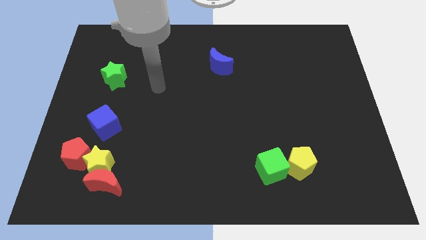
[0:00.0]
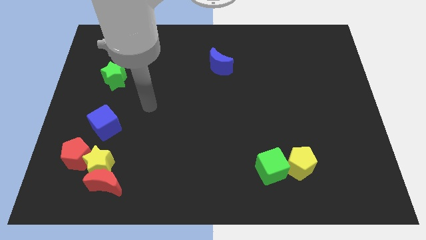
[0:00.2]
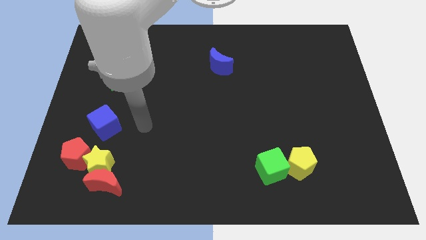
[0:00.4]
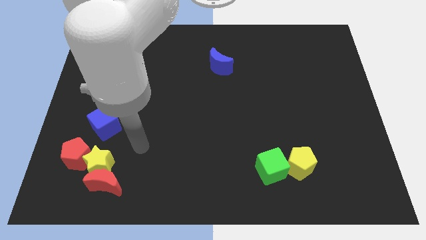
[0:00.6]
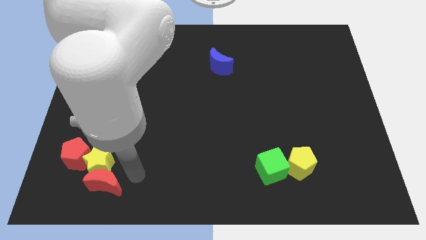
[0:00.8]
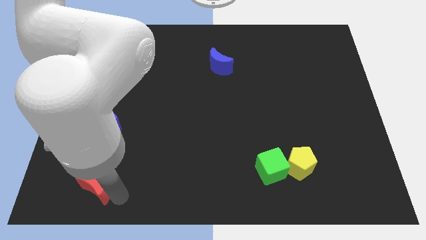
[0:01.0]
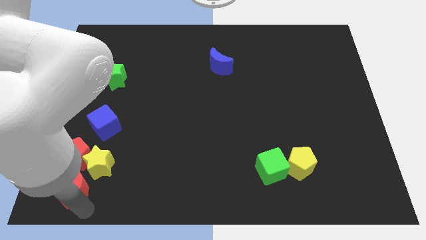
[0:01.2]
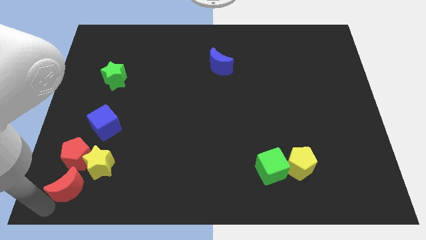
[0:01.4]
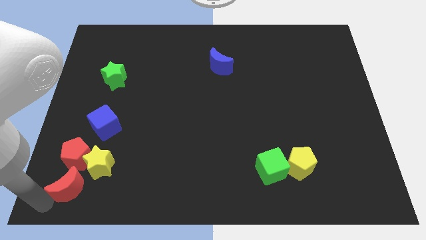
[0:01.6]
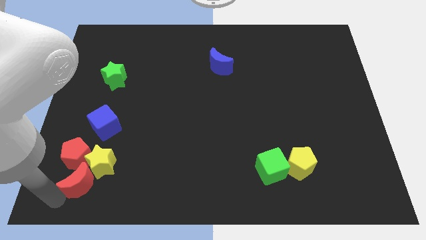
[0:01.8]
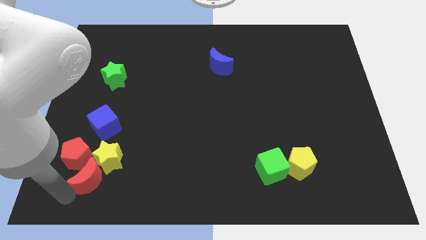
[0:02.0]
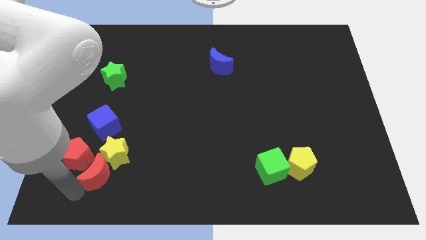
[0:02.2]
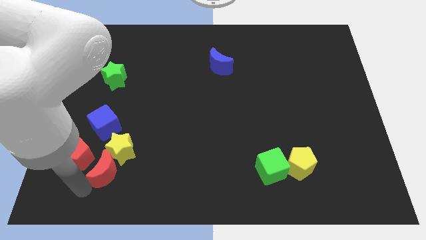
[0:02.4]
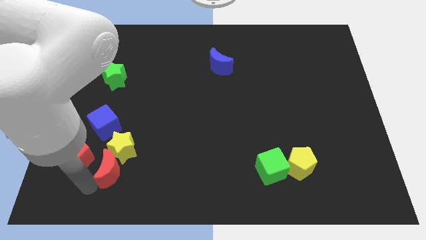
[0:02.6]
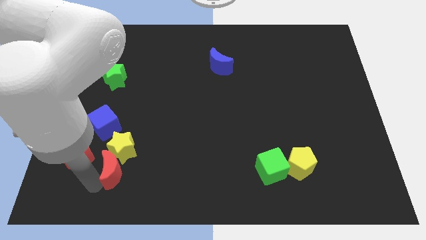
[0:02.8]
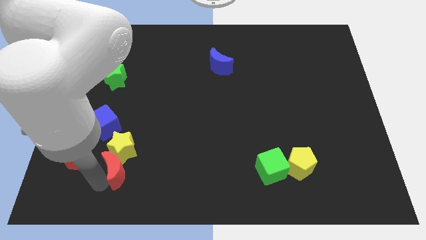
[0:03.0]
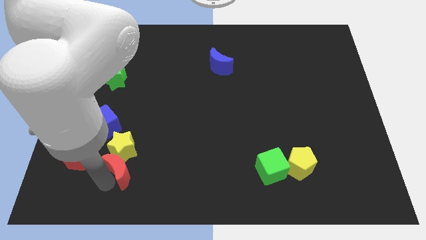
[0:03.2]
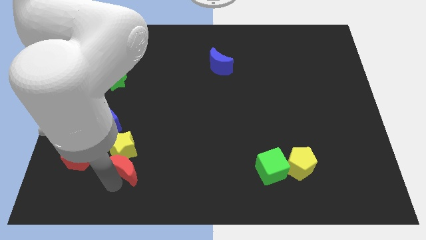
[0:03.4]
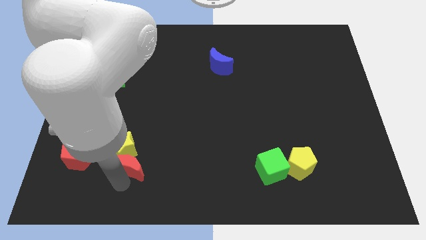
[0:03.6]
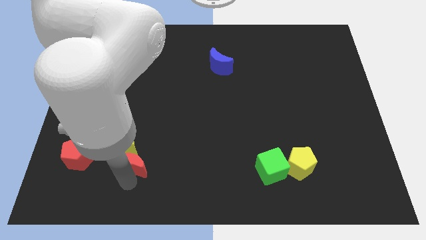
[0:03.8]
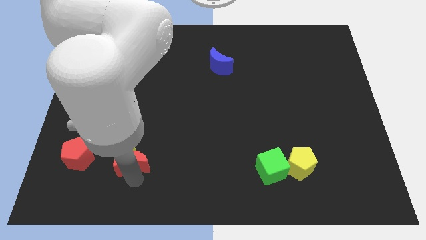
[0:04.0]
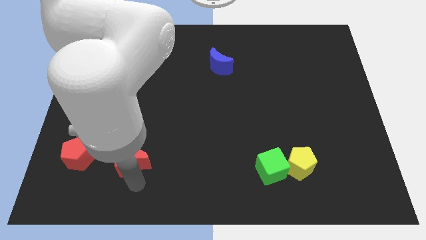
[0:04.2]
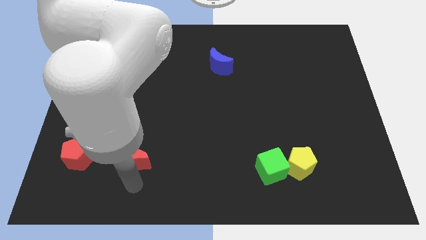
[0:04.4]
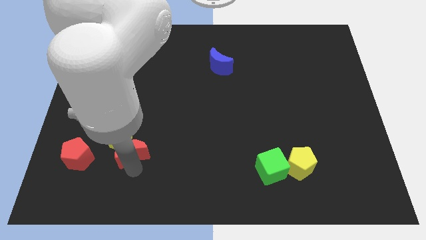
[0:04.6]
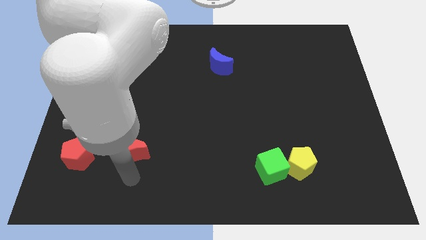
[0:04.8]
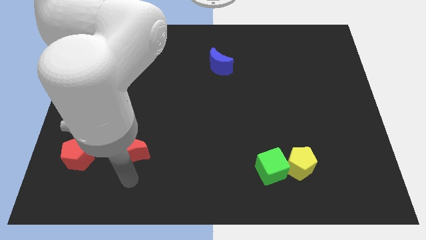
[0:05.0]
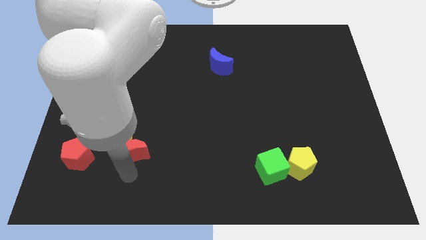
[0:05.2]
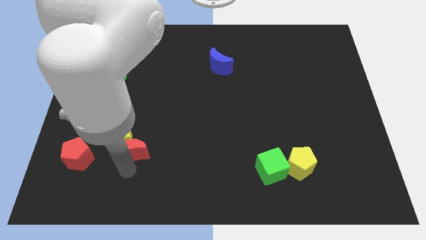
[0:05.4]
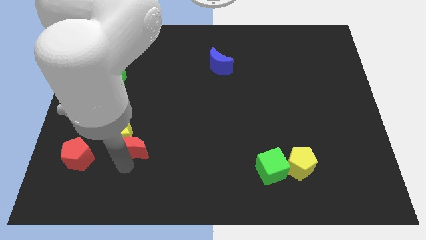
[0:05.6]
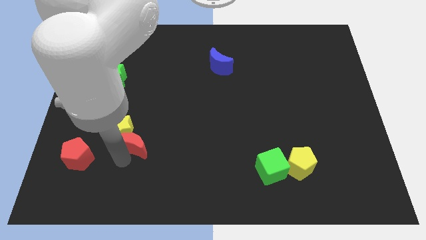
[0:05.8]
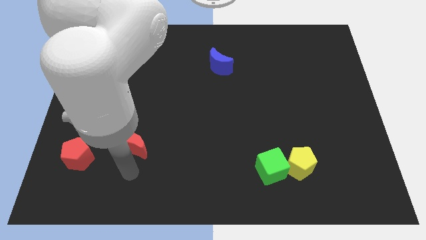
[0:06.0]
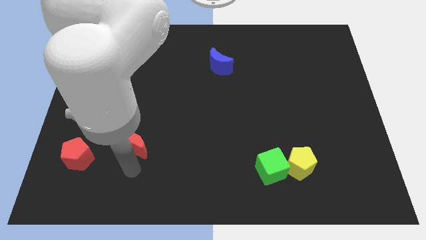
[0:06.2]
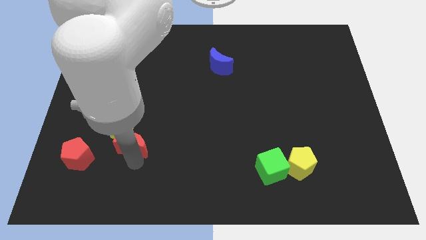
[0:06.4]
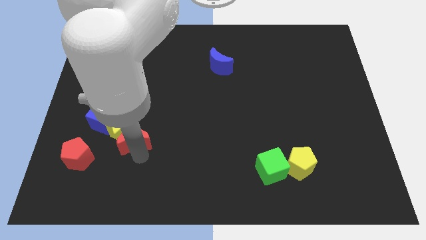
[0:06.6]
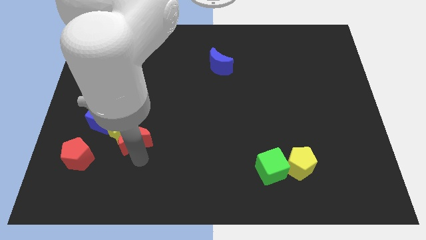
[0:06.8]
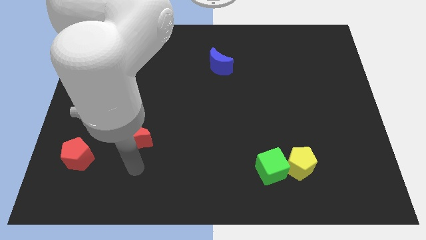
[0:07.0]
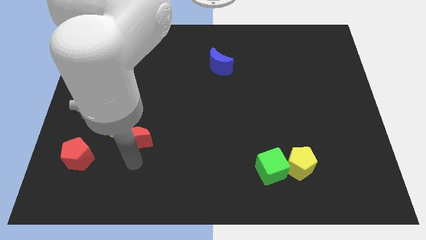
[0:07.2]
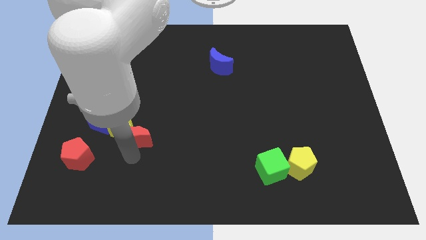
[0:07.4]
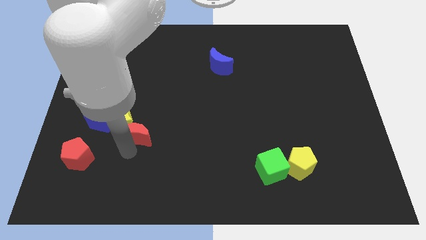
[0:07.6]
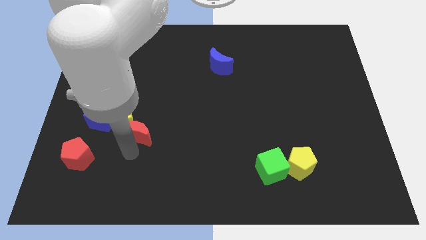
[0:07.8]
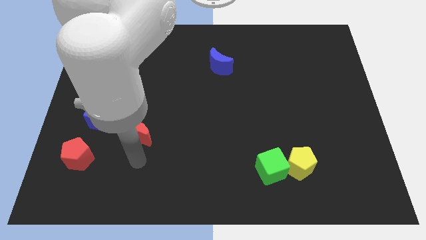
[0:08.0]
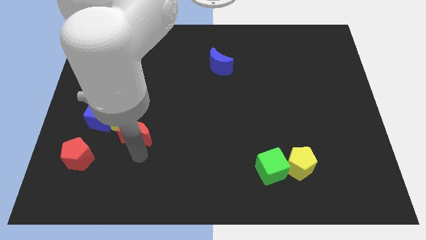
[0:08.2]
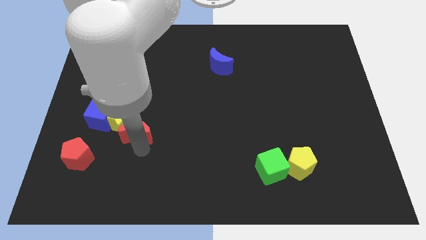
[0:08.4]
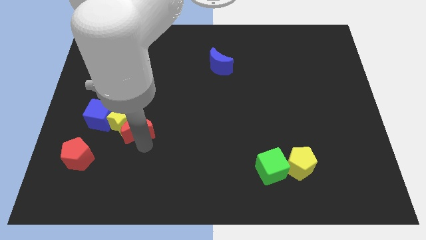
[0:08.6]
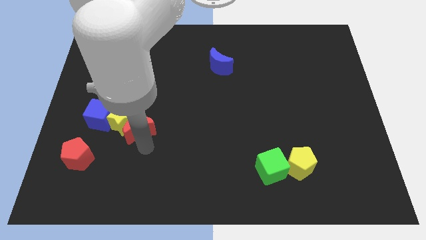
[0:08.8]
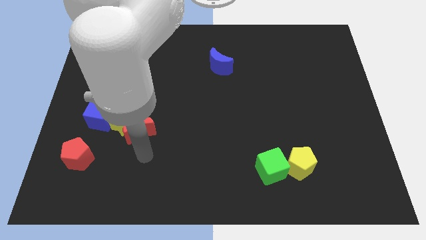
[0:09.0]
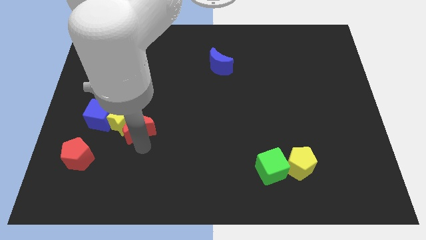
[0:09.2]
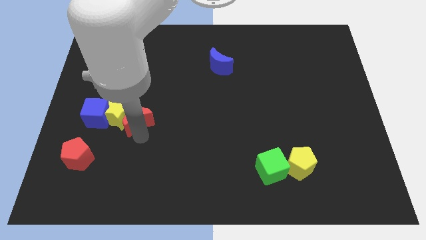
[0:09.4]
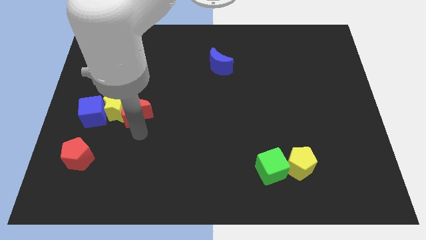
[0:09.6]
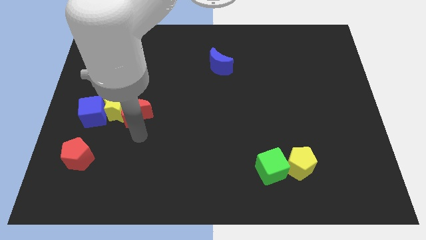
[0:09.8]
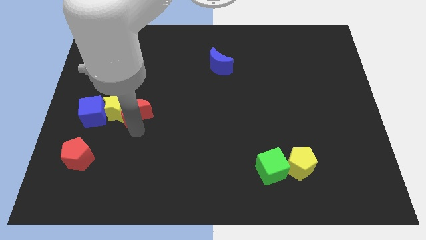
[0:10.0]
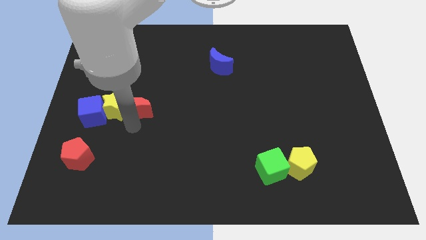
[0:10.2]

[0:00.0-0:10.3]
move the red moon to the bottom right of the green star

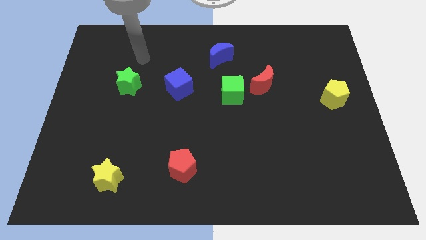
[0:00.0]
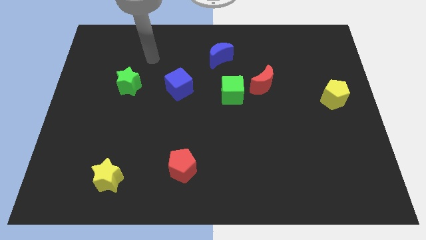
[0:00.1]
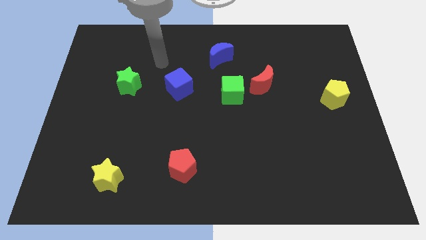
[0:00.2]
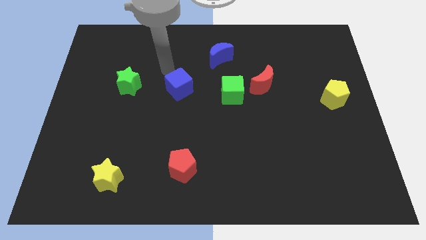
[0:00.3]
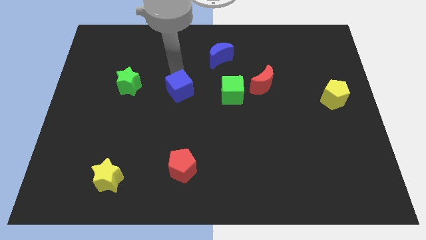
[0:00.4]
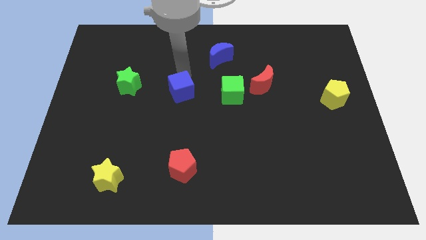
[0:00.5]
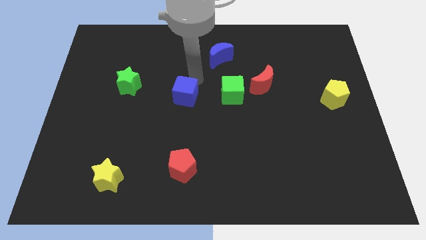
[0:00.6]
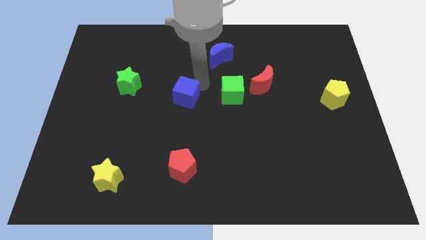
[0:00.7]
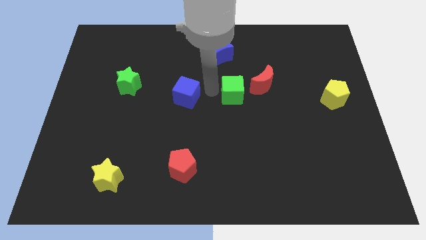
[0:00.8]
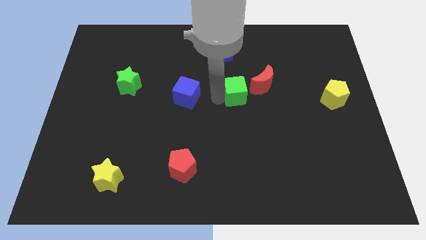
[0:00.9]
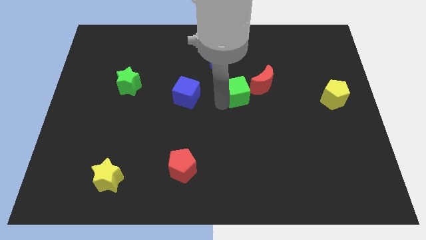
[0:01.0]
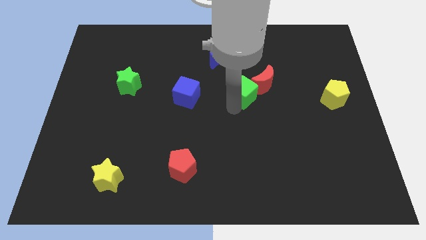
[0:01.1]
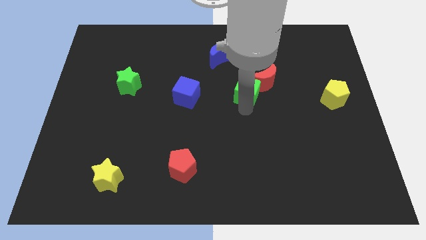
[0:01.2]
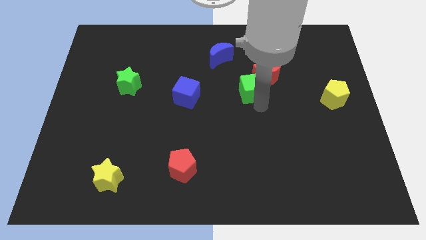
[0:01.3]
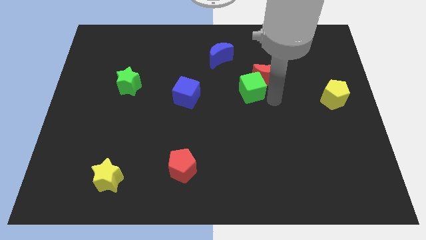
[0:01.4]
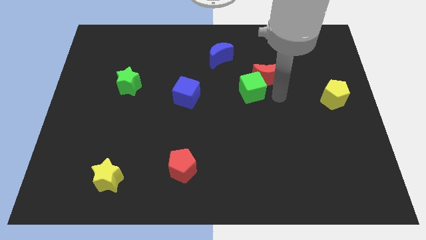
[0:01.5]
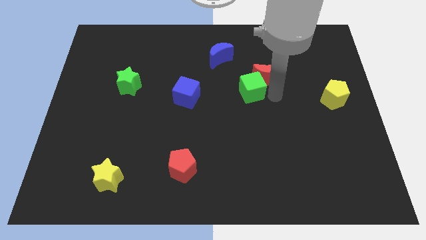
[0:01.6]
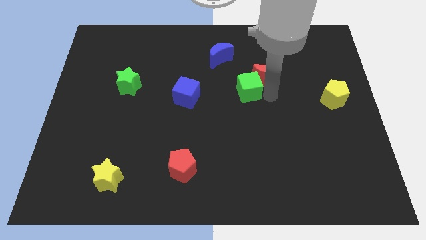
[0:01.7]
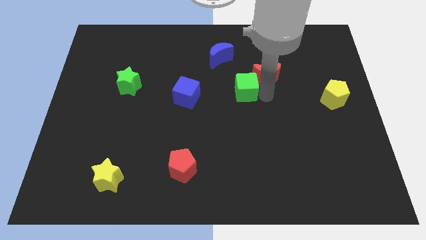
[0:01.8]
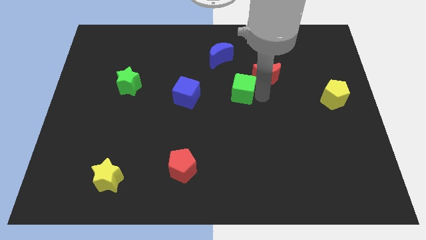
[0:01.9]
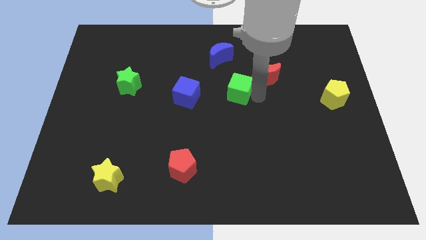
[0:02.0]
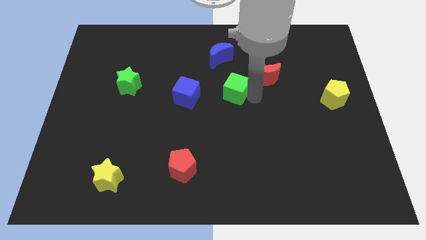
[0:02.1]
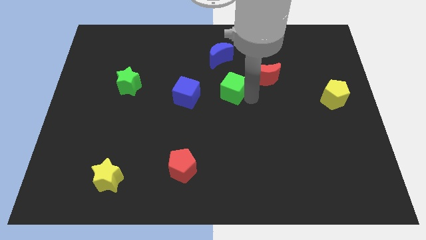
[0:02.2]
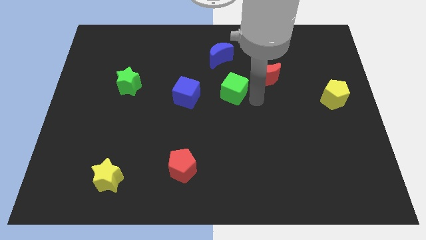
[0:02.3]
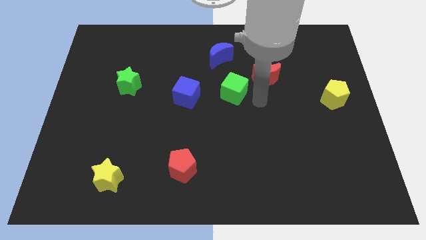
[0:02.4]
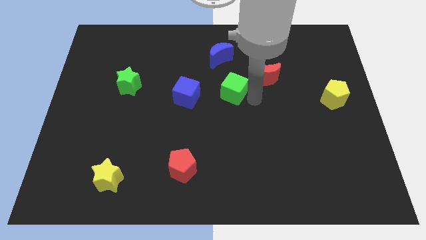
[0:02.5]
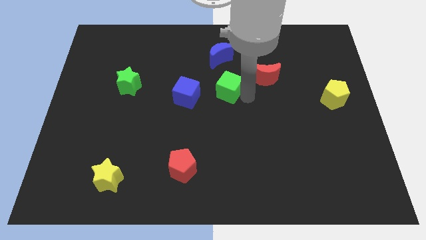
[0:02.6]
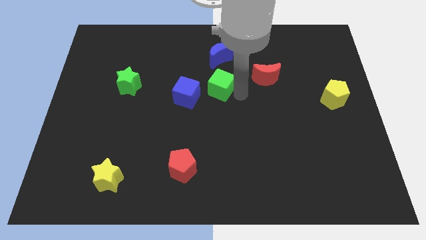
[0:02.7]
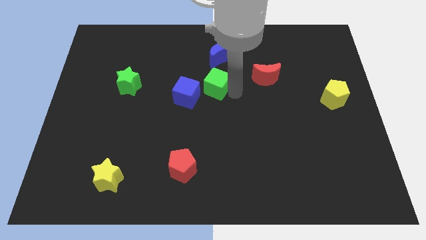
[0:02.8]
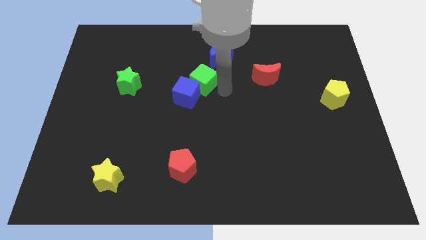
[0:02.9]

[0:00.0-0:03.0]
push the green cube to the top side of the blue cube
